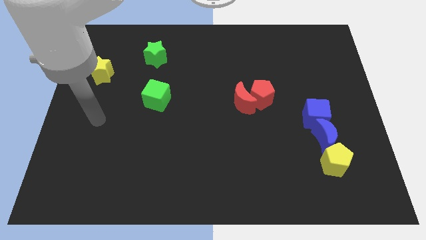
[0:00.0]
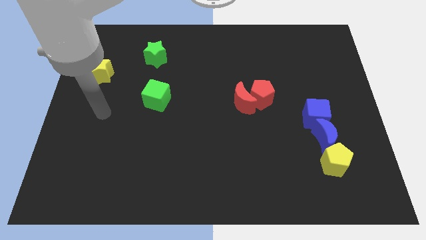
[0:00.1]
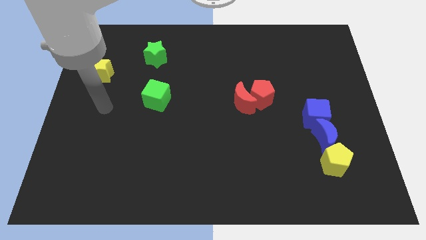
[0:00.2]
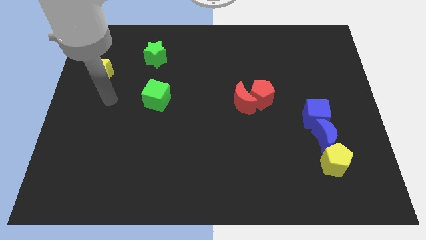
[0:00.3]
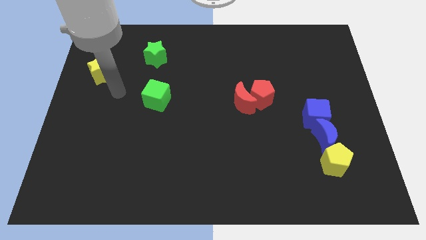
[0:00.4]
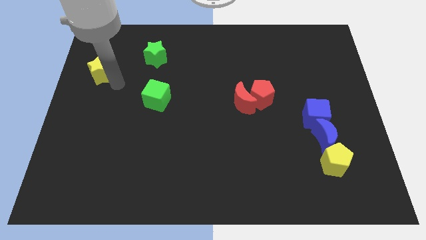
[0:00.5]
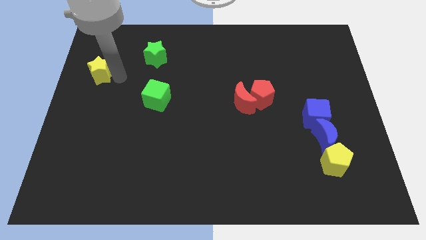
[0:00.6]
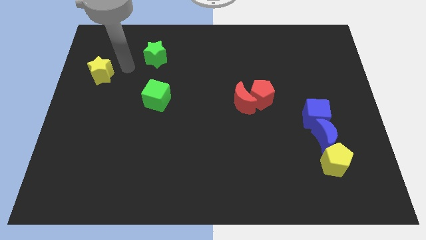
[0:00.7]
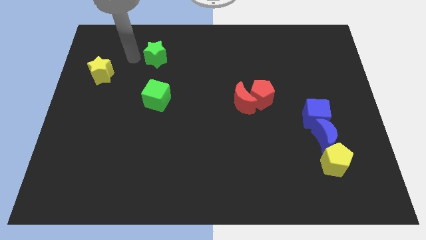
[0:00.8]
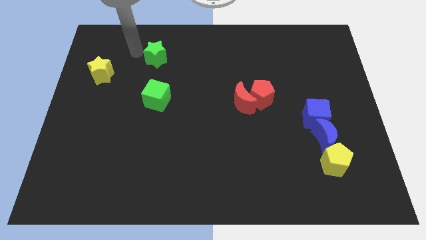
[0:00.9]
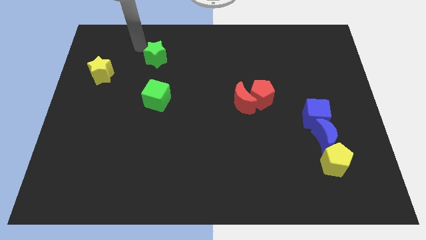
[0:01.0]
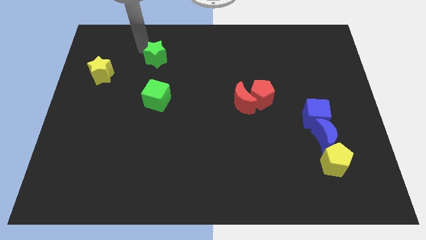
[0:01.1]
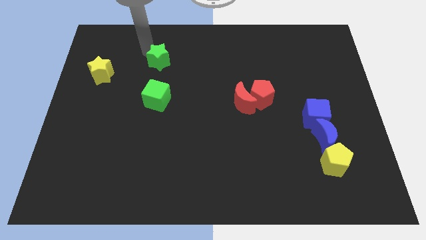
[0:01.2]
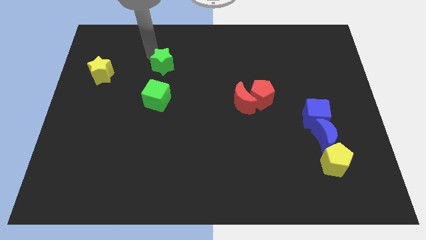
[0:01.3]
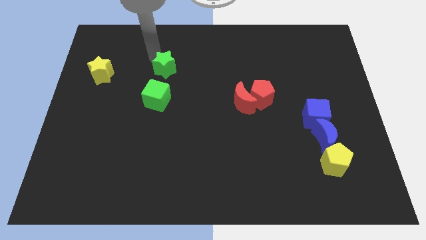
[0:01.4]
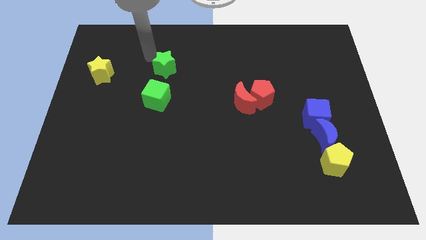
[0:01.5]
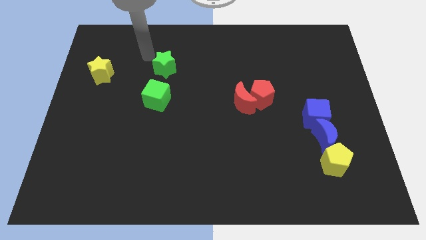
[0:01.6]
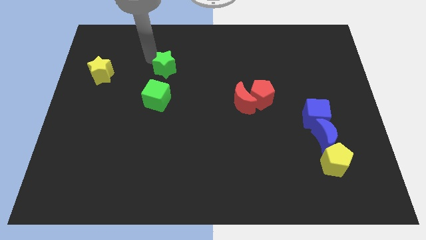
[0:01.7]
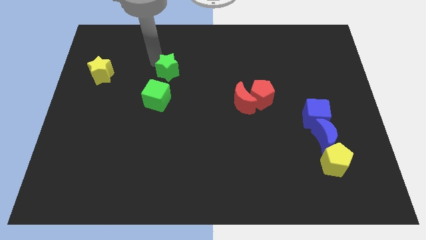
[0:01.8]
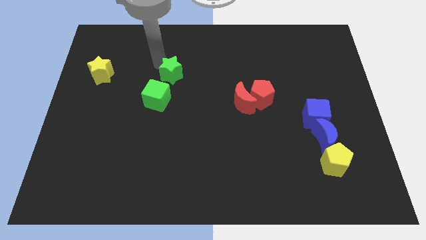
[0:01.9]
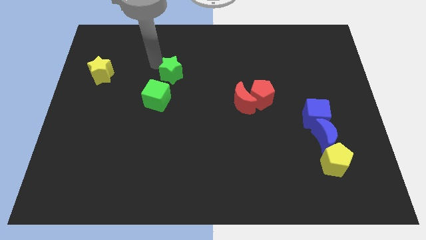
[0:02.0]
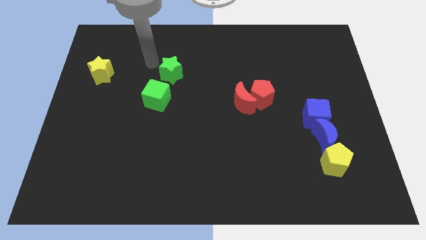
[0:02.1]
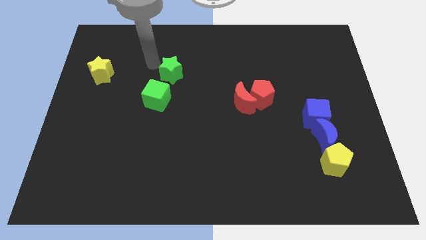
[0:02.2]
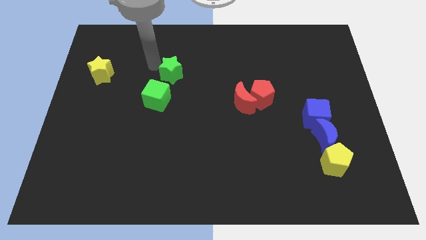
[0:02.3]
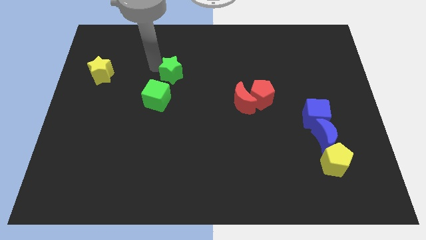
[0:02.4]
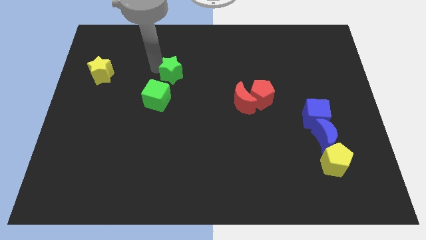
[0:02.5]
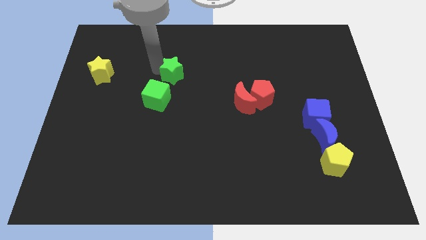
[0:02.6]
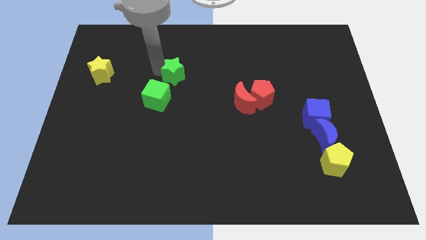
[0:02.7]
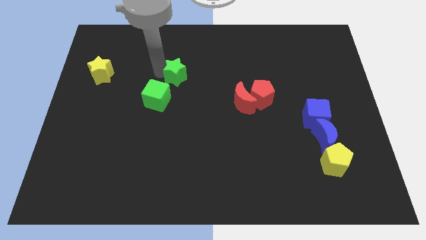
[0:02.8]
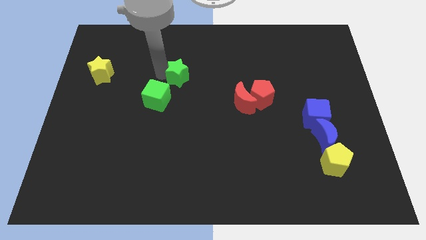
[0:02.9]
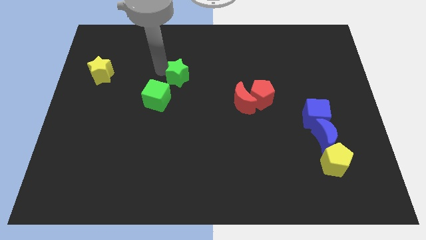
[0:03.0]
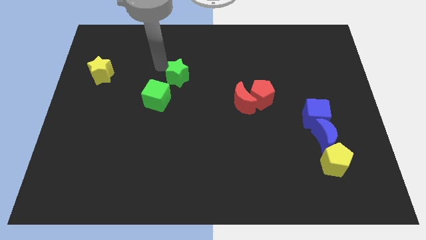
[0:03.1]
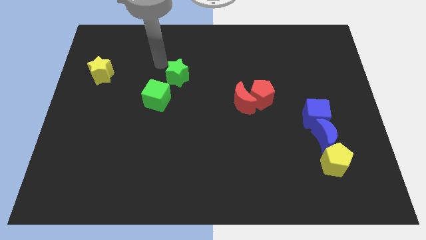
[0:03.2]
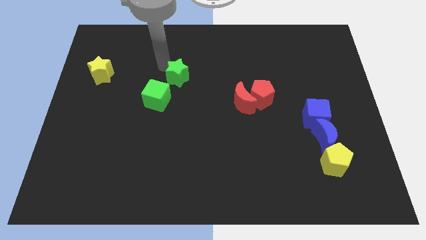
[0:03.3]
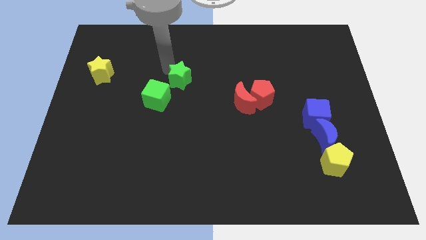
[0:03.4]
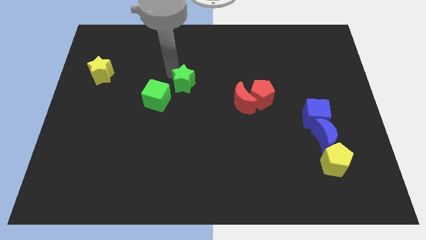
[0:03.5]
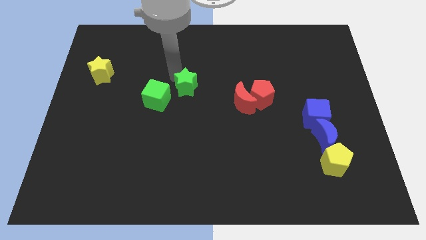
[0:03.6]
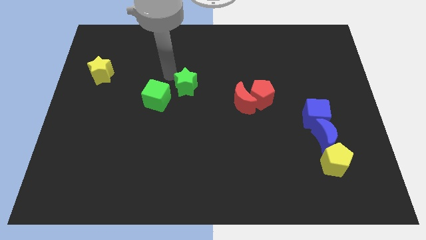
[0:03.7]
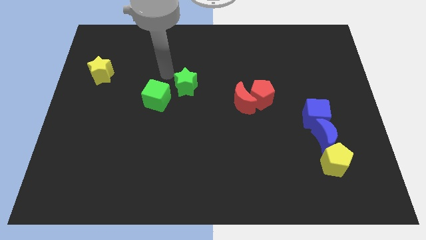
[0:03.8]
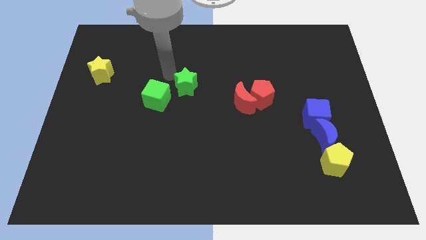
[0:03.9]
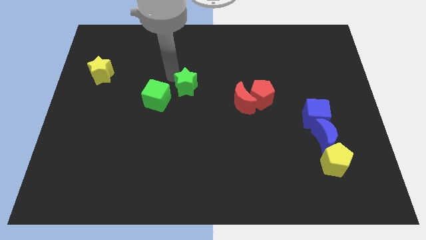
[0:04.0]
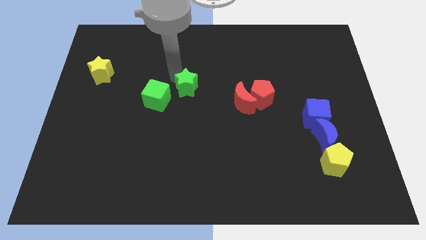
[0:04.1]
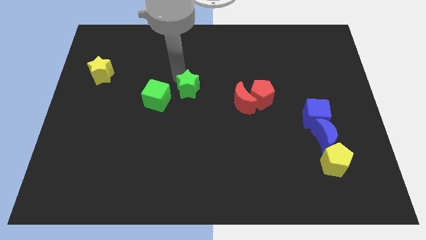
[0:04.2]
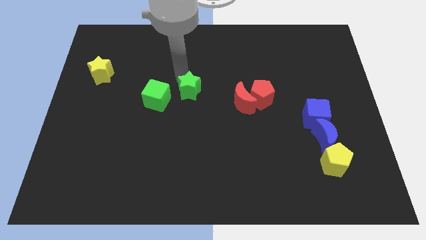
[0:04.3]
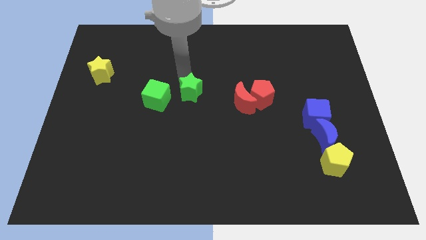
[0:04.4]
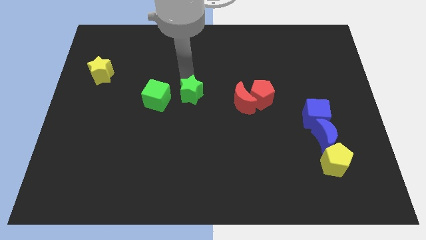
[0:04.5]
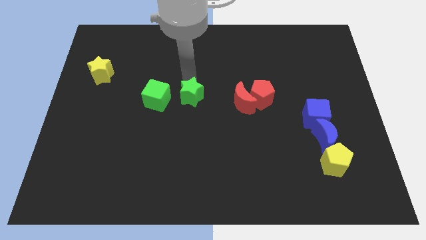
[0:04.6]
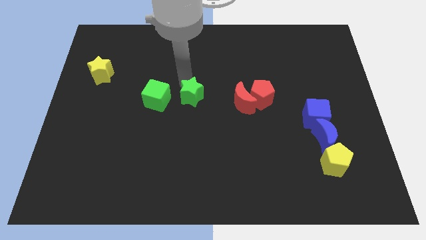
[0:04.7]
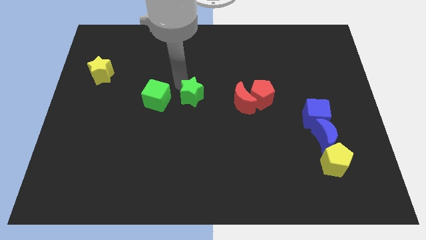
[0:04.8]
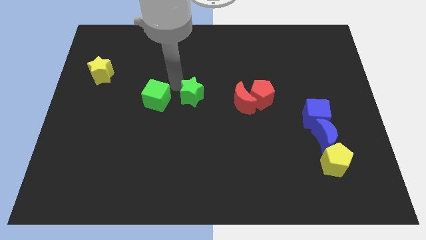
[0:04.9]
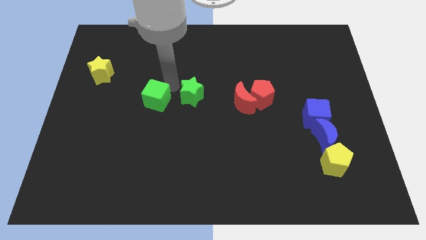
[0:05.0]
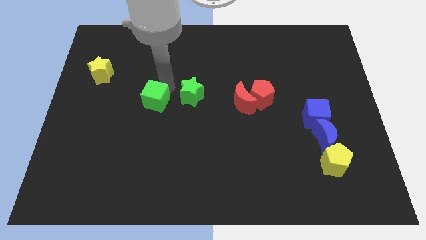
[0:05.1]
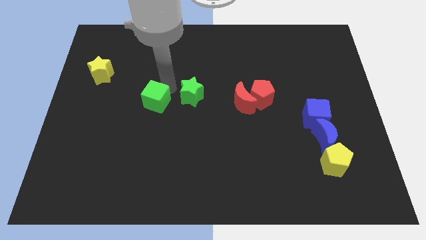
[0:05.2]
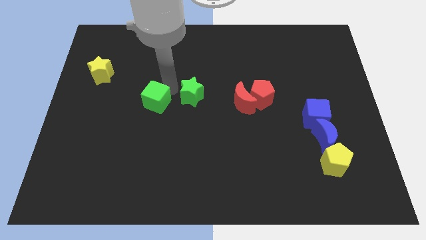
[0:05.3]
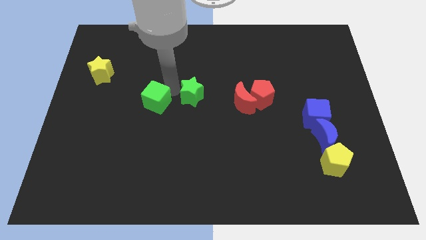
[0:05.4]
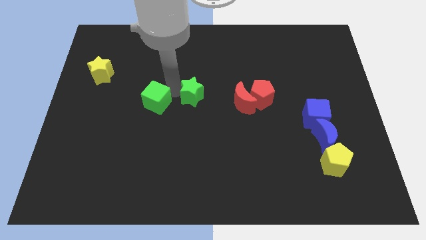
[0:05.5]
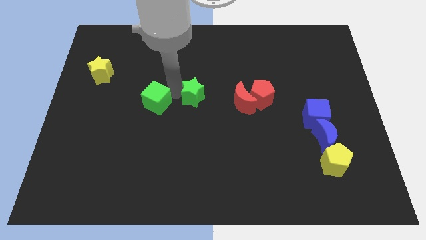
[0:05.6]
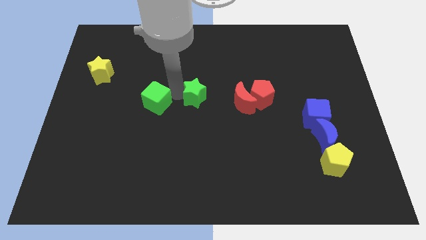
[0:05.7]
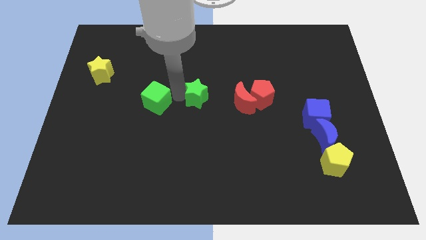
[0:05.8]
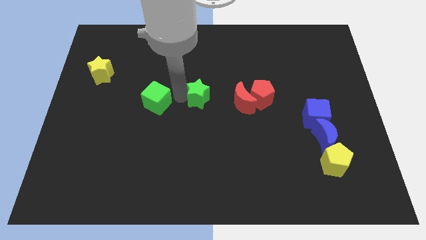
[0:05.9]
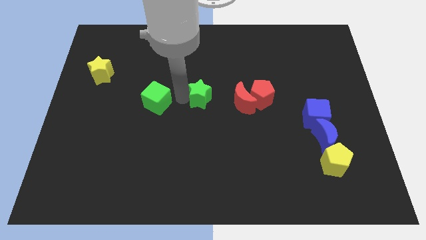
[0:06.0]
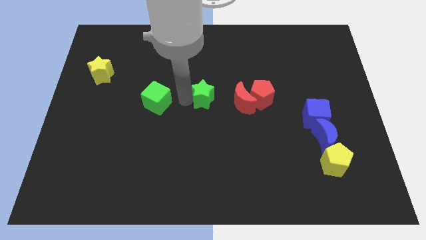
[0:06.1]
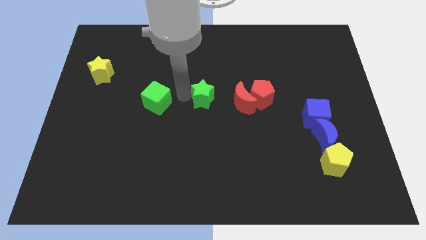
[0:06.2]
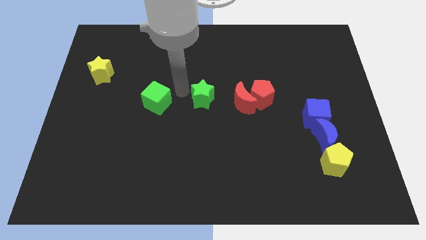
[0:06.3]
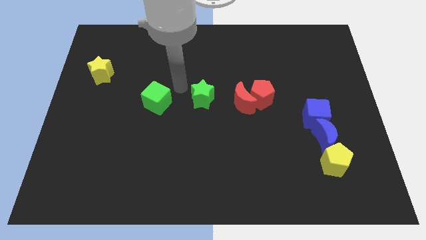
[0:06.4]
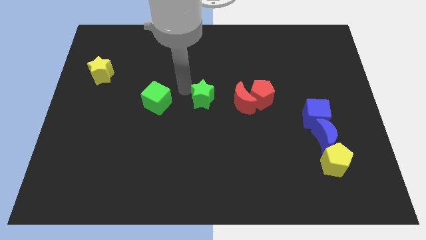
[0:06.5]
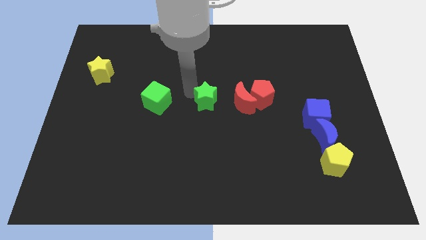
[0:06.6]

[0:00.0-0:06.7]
slide the green star down and then to the right

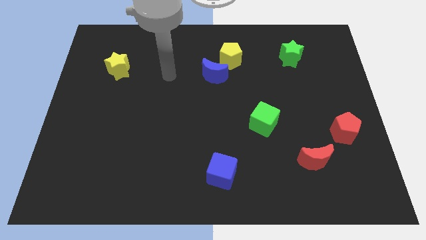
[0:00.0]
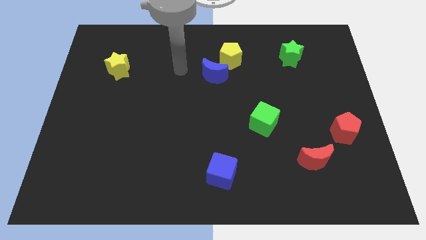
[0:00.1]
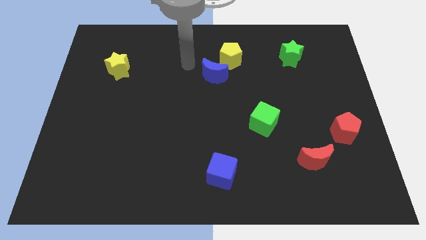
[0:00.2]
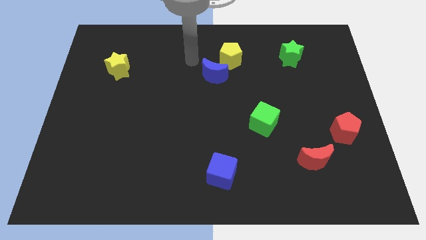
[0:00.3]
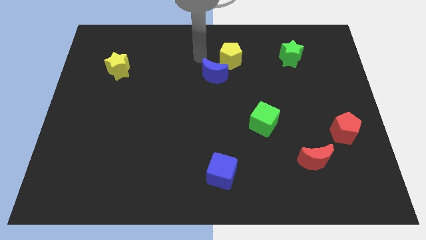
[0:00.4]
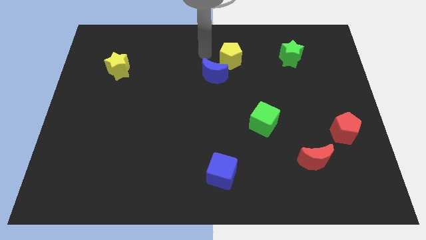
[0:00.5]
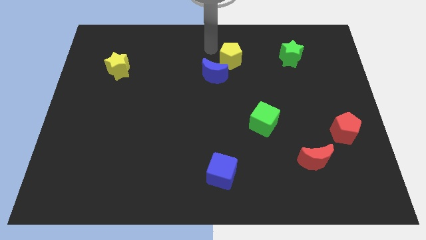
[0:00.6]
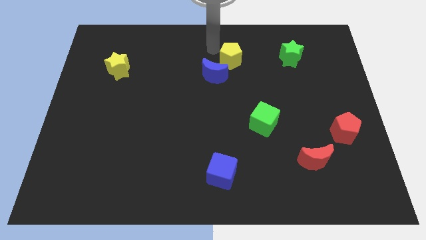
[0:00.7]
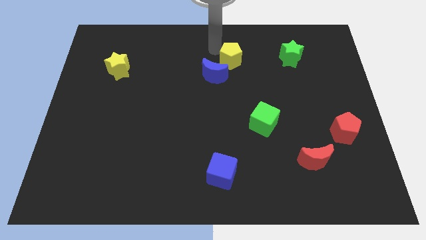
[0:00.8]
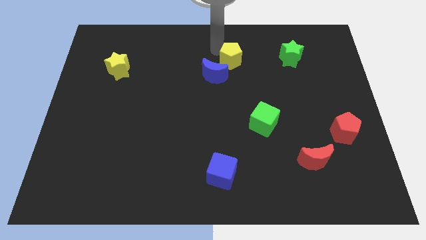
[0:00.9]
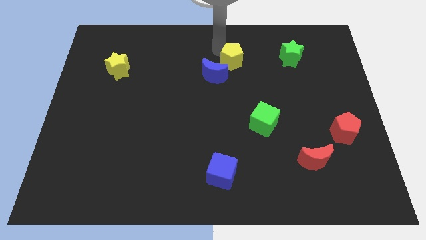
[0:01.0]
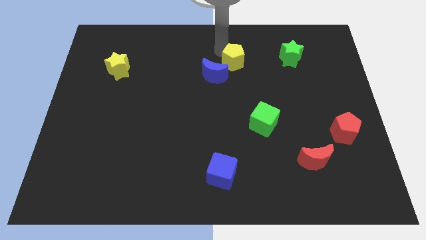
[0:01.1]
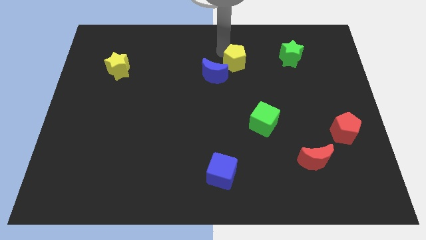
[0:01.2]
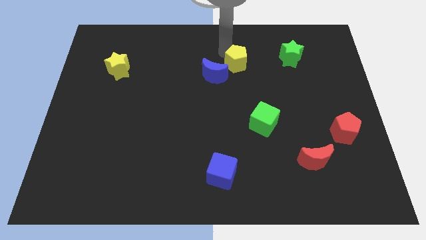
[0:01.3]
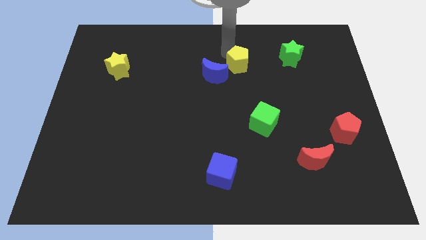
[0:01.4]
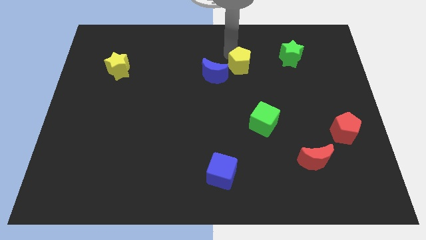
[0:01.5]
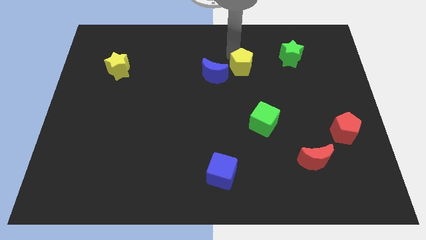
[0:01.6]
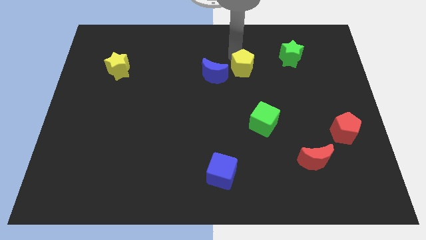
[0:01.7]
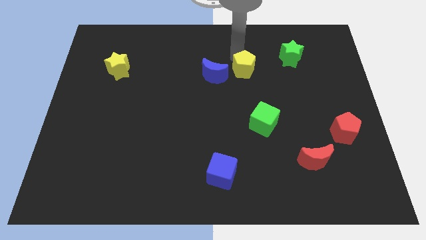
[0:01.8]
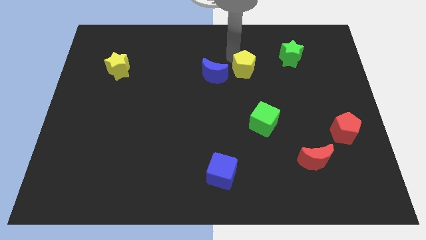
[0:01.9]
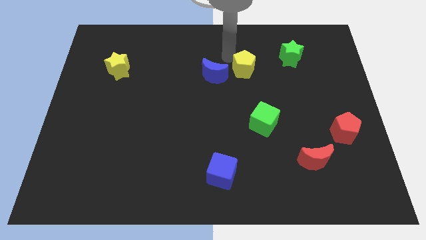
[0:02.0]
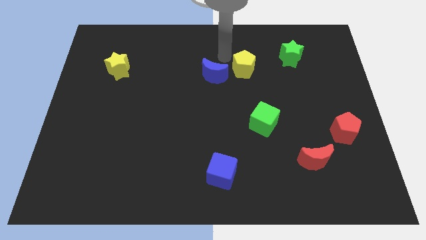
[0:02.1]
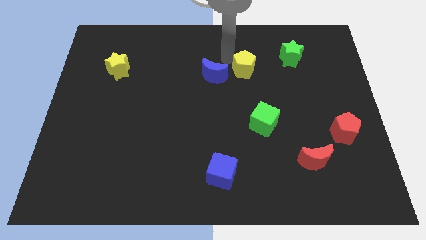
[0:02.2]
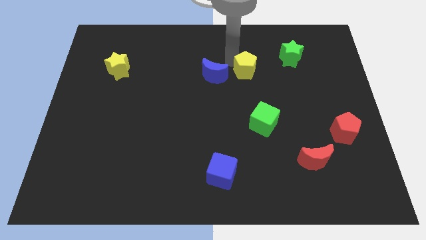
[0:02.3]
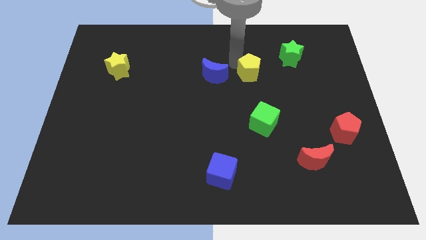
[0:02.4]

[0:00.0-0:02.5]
move the yellow pentagon somewhat down and to the right diagonally
